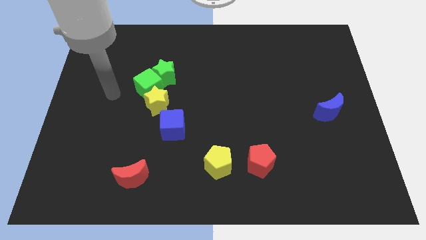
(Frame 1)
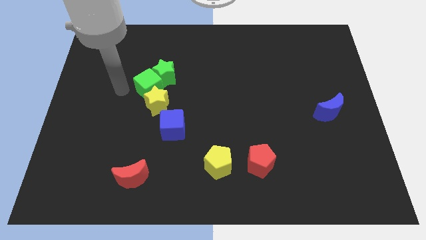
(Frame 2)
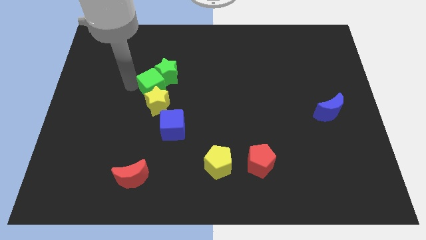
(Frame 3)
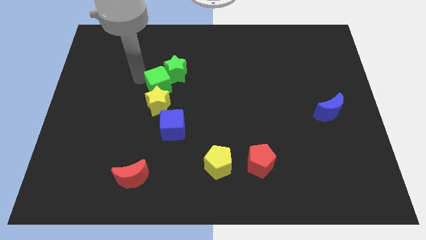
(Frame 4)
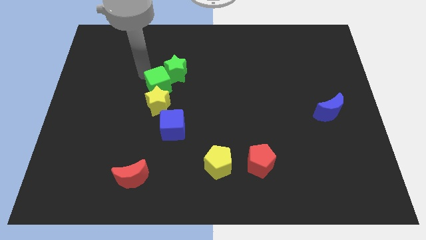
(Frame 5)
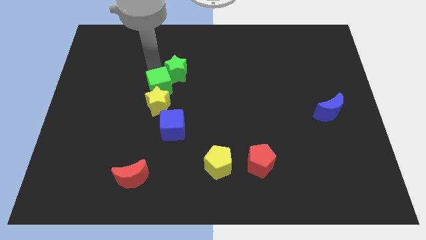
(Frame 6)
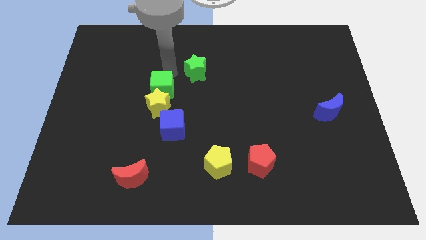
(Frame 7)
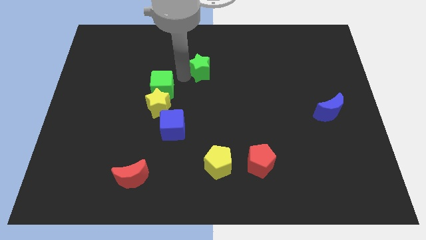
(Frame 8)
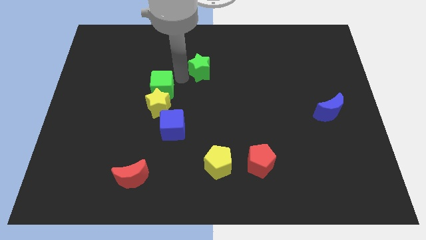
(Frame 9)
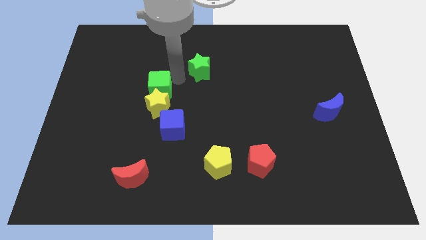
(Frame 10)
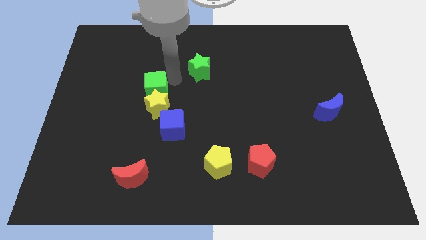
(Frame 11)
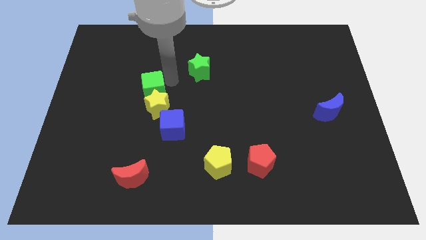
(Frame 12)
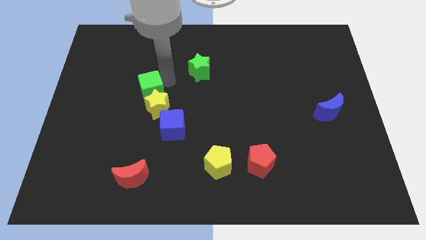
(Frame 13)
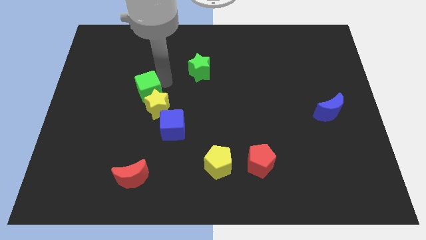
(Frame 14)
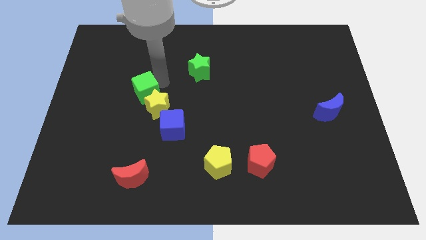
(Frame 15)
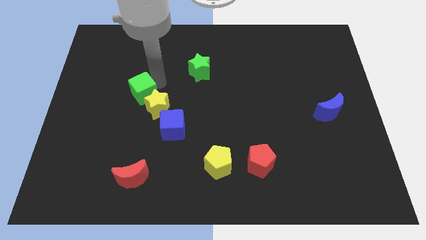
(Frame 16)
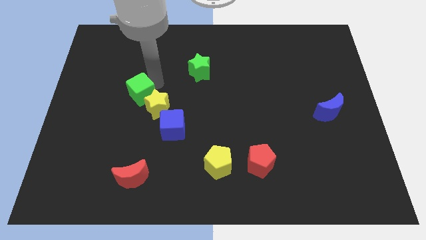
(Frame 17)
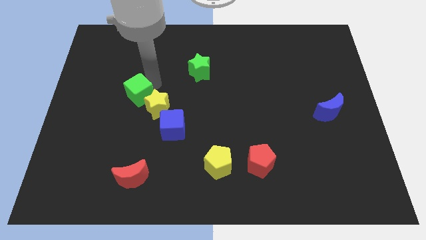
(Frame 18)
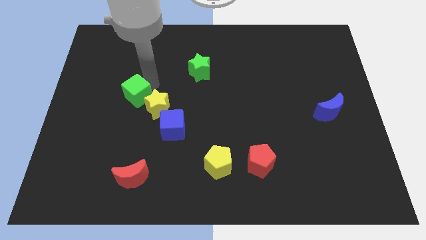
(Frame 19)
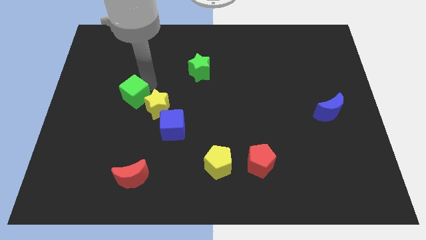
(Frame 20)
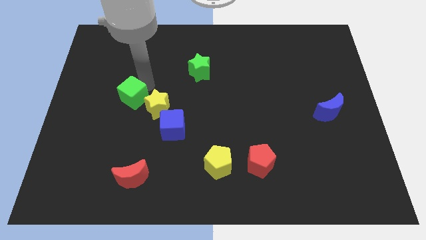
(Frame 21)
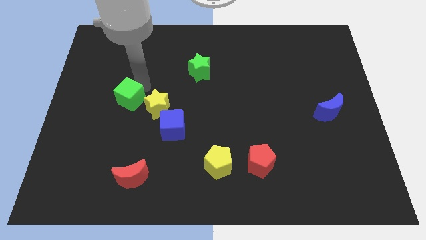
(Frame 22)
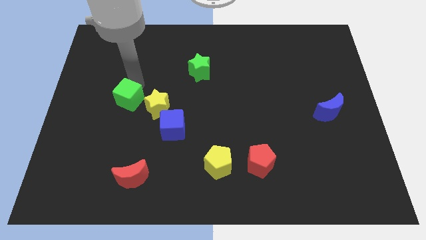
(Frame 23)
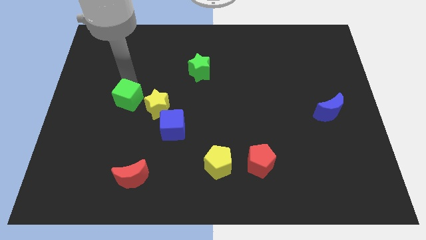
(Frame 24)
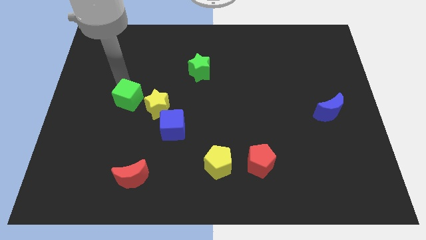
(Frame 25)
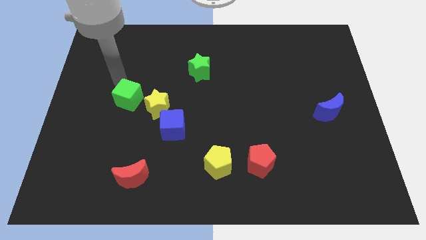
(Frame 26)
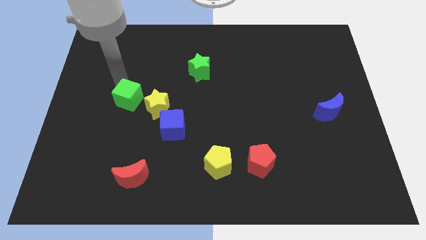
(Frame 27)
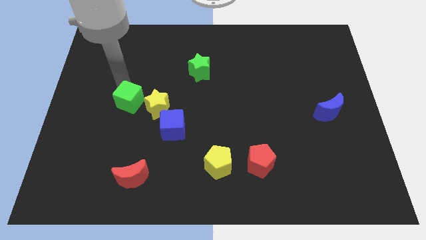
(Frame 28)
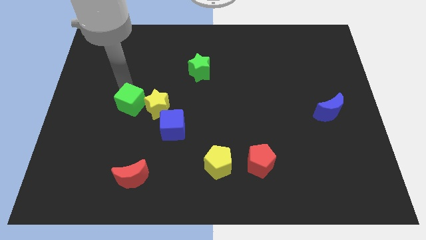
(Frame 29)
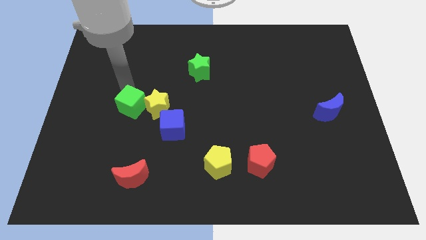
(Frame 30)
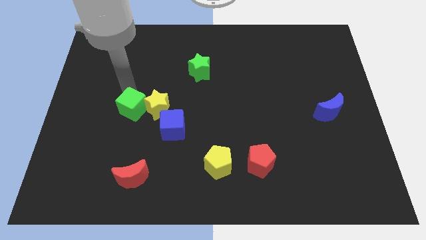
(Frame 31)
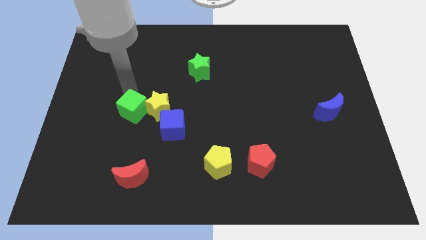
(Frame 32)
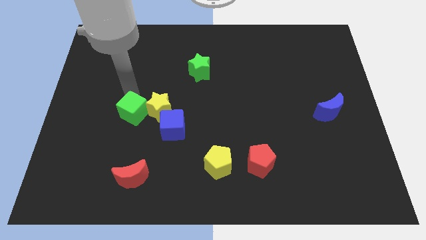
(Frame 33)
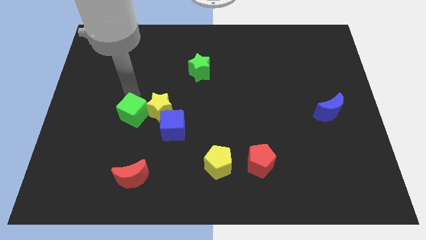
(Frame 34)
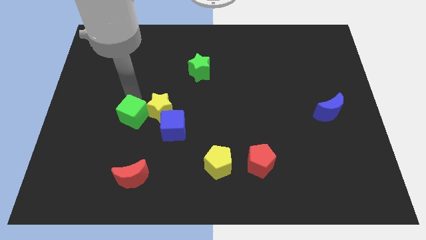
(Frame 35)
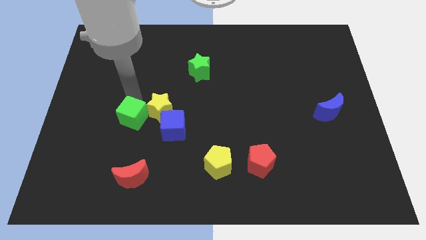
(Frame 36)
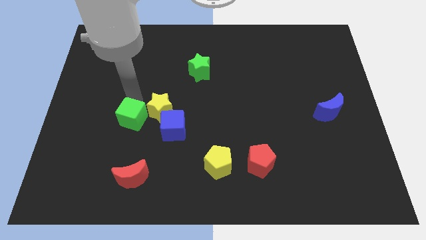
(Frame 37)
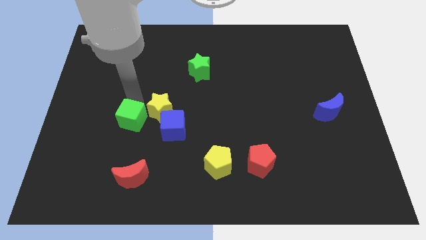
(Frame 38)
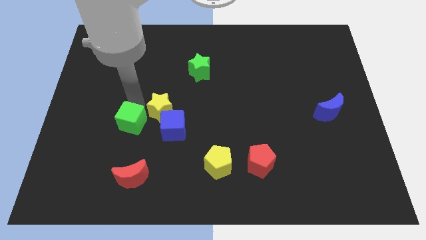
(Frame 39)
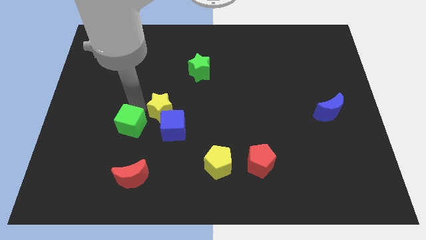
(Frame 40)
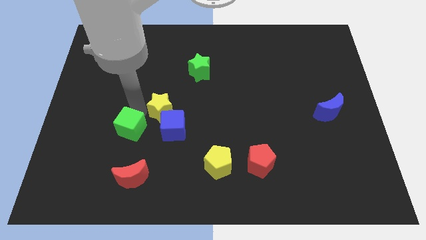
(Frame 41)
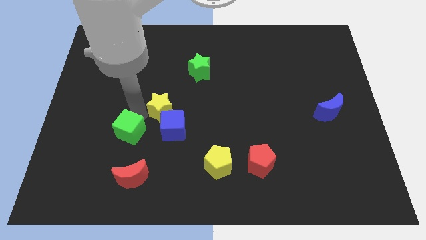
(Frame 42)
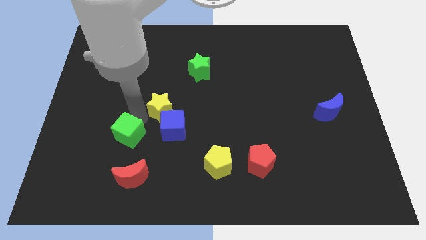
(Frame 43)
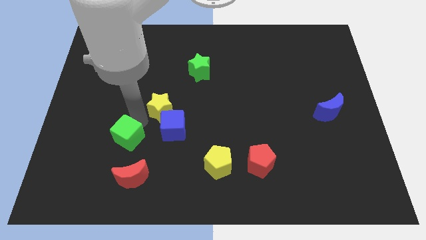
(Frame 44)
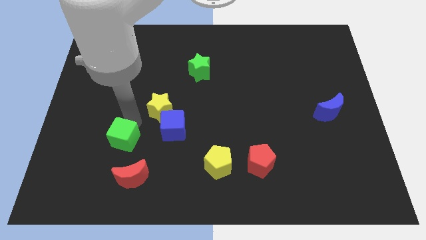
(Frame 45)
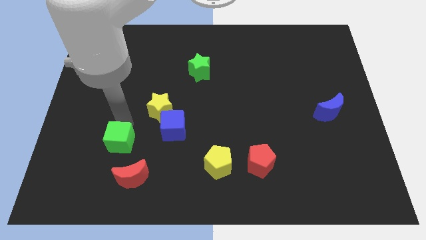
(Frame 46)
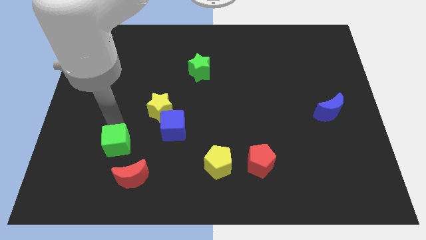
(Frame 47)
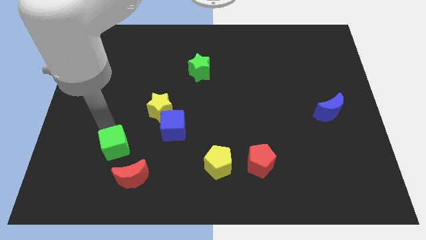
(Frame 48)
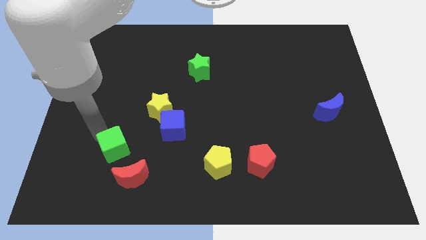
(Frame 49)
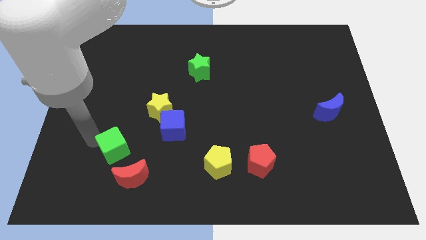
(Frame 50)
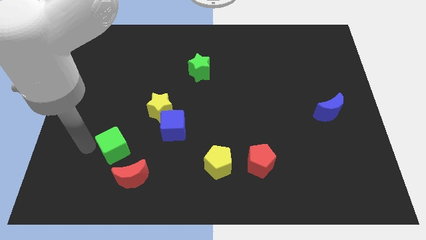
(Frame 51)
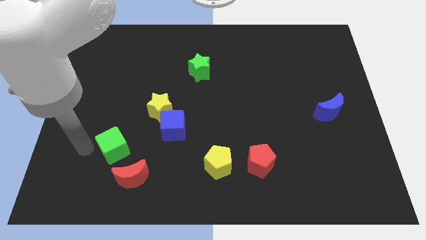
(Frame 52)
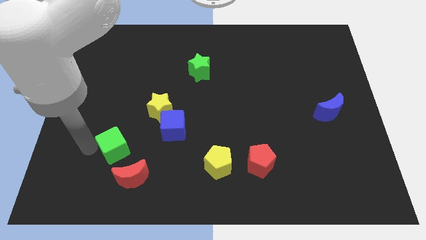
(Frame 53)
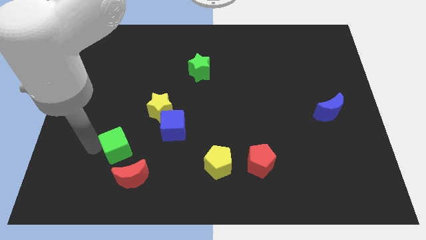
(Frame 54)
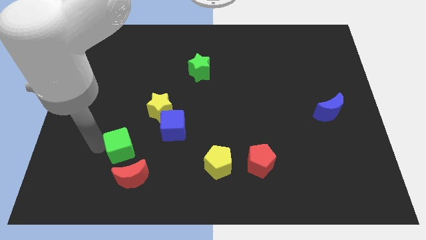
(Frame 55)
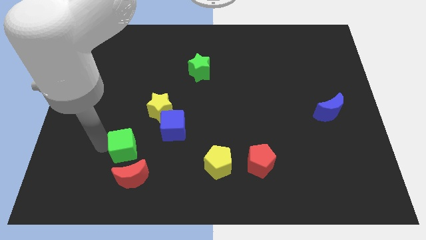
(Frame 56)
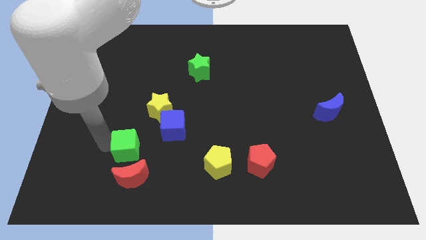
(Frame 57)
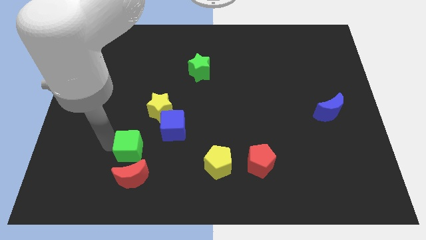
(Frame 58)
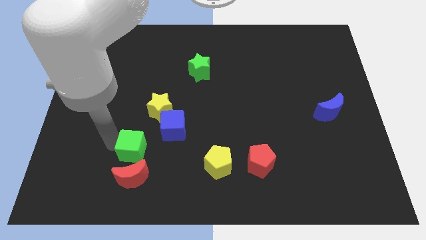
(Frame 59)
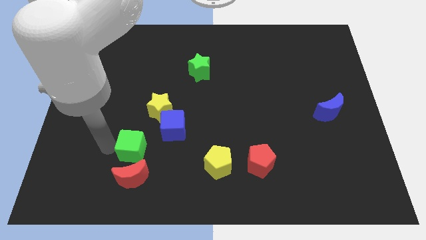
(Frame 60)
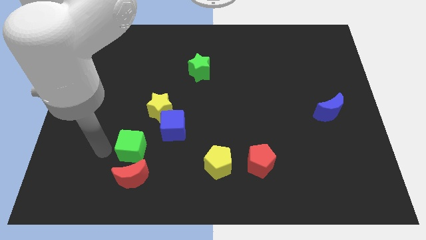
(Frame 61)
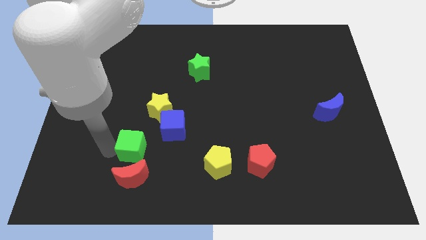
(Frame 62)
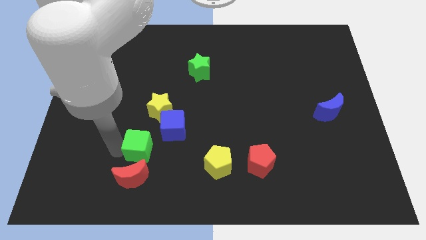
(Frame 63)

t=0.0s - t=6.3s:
slide the green cube to the bottom side of the yellow star

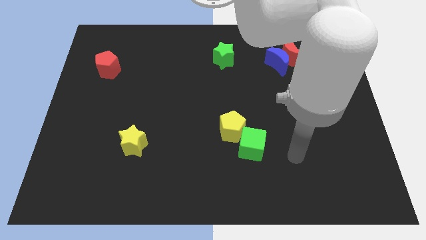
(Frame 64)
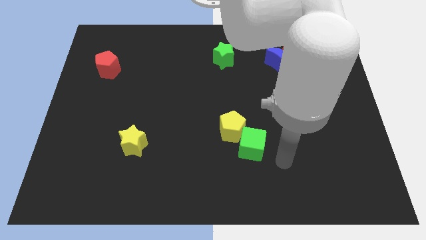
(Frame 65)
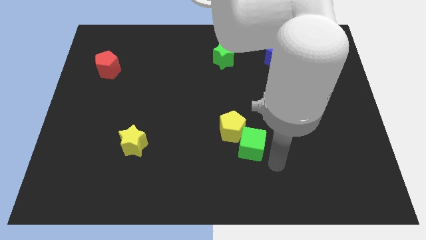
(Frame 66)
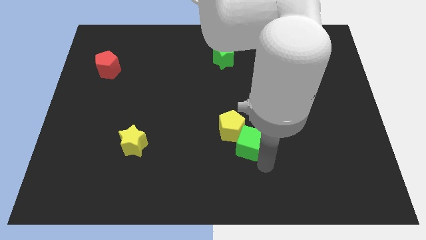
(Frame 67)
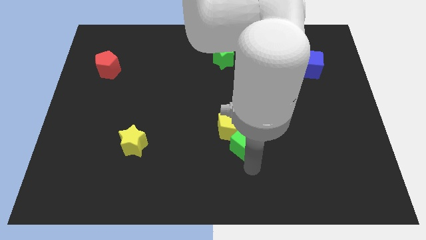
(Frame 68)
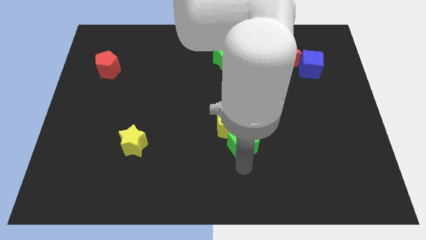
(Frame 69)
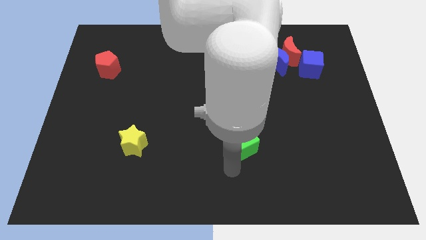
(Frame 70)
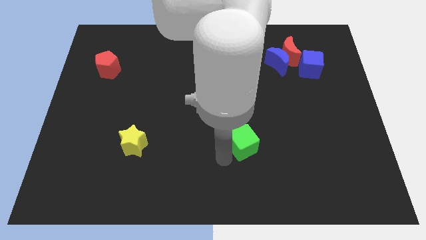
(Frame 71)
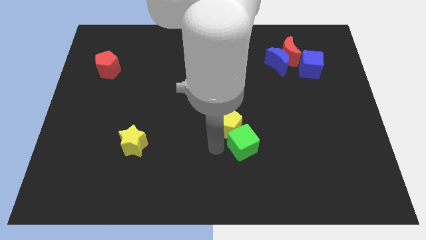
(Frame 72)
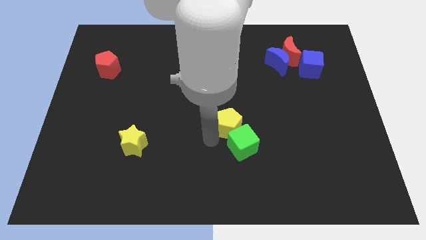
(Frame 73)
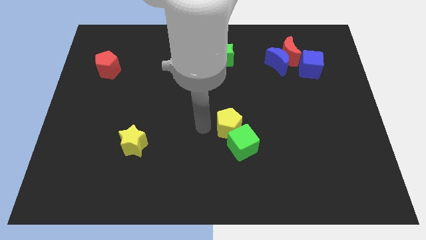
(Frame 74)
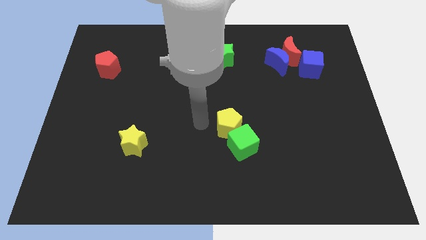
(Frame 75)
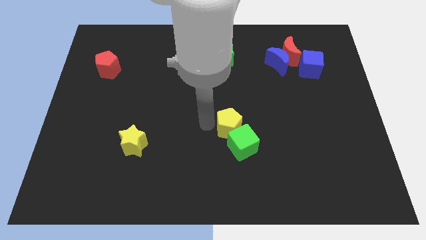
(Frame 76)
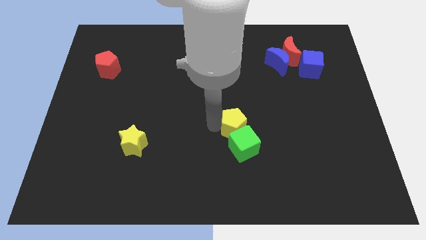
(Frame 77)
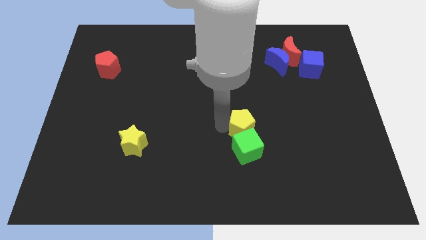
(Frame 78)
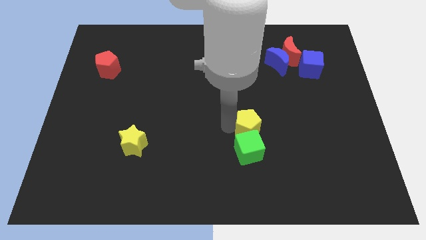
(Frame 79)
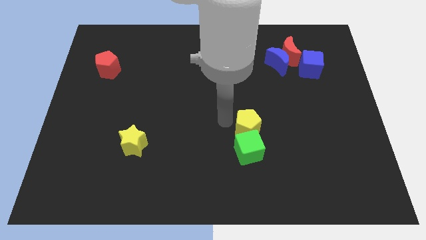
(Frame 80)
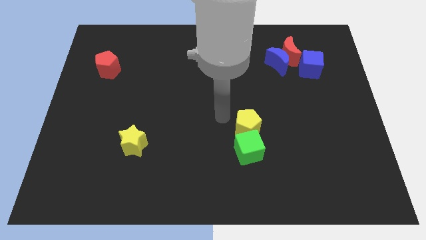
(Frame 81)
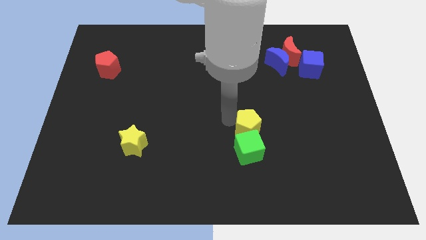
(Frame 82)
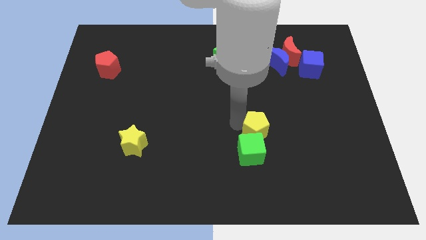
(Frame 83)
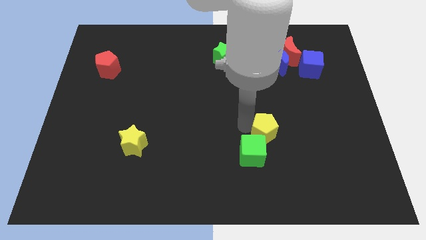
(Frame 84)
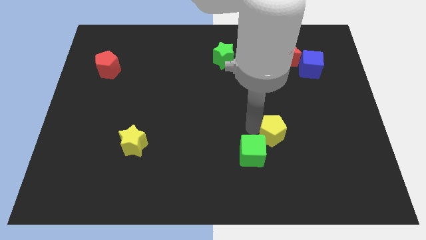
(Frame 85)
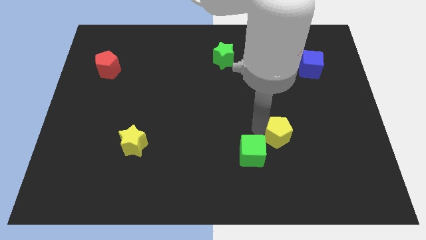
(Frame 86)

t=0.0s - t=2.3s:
put the yellow pentagon just right of the green cube
